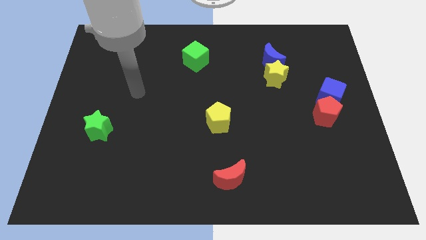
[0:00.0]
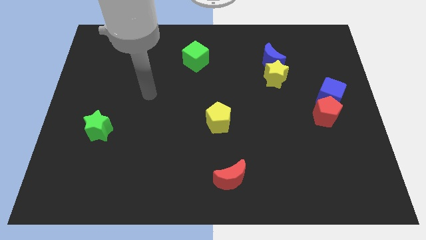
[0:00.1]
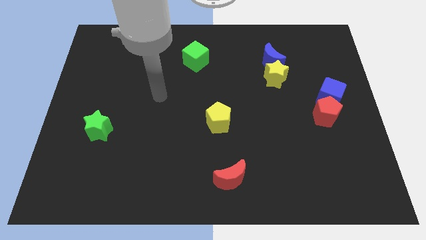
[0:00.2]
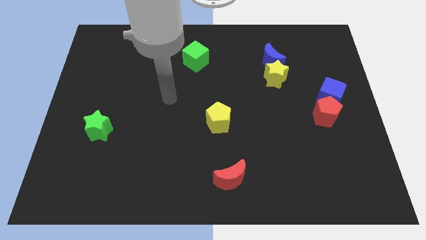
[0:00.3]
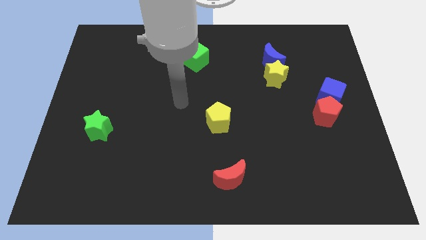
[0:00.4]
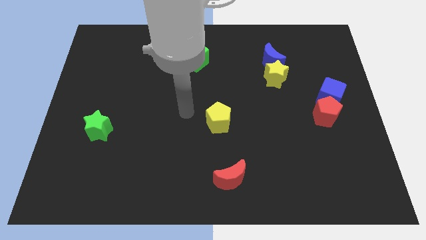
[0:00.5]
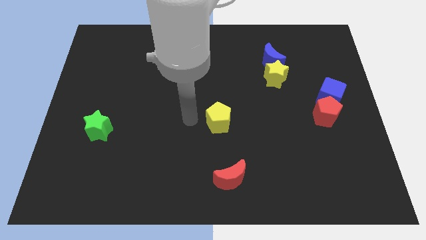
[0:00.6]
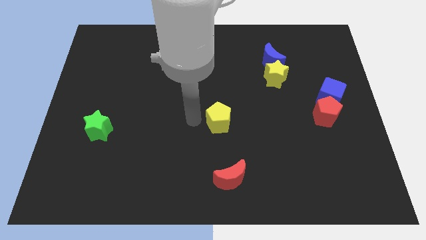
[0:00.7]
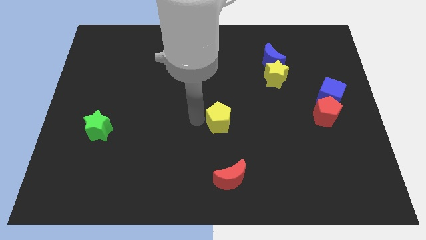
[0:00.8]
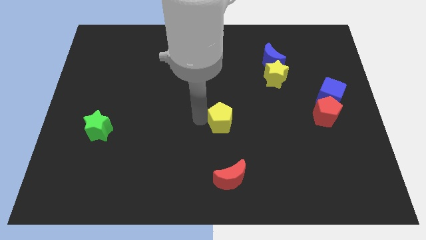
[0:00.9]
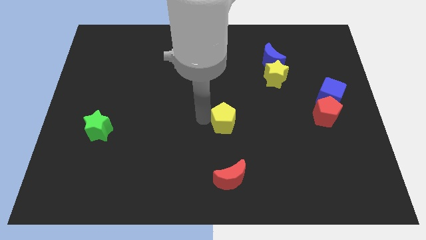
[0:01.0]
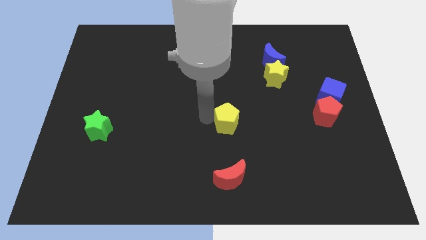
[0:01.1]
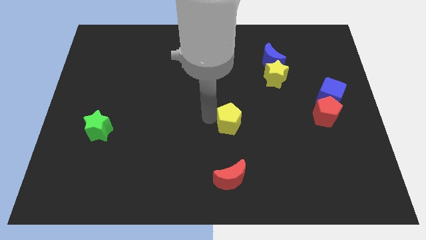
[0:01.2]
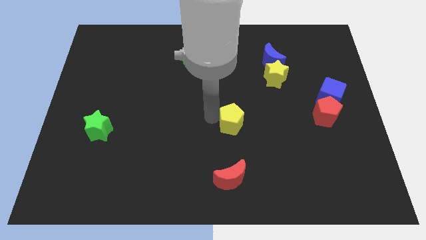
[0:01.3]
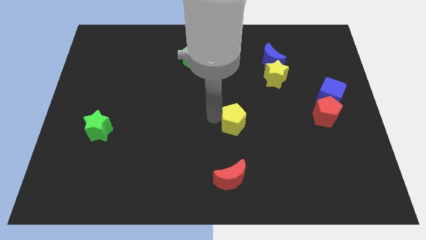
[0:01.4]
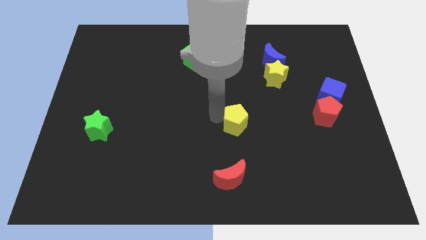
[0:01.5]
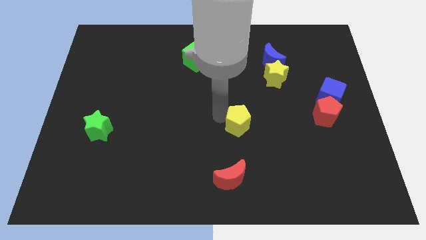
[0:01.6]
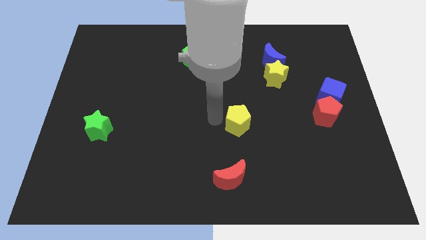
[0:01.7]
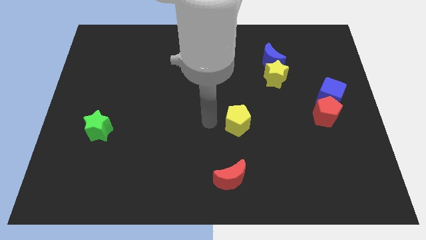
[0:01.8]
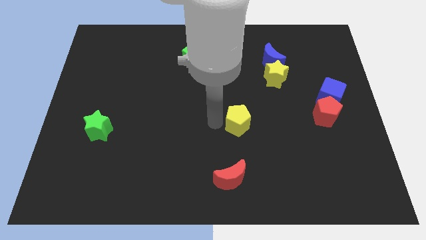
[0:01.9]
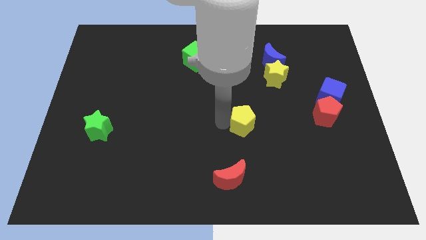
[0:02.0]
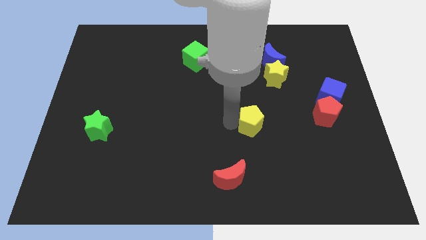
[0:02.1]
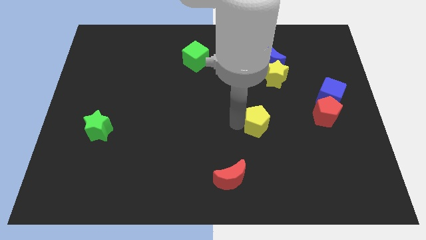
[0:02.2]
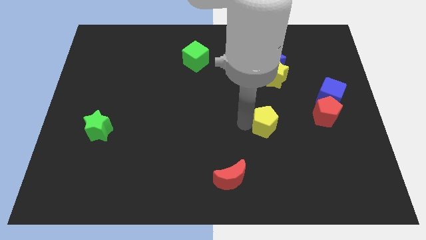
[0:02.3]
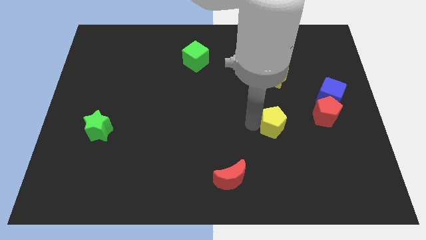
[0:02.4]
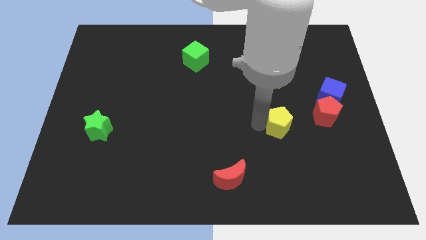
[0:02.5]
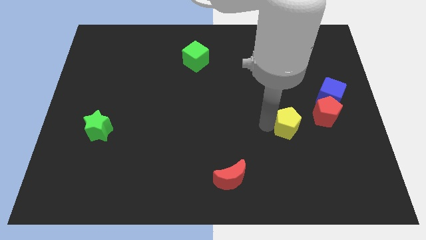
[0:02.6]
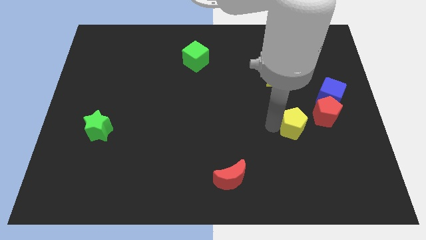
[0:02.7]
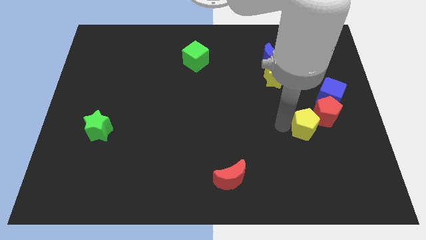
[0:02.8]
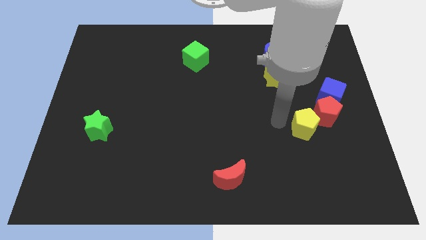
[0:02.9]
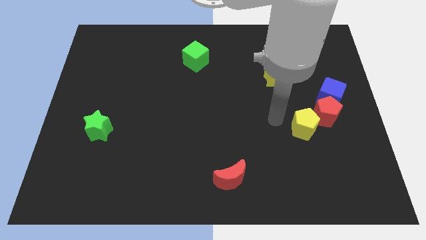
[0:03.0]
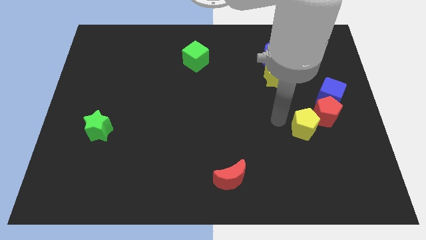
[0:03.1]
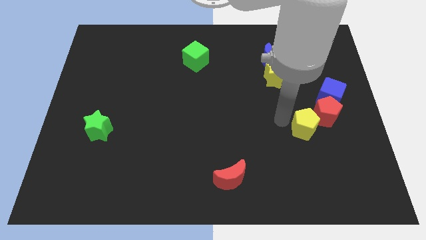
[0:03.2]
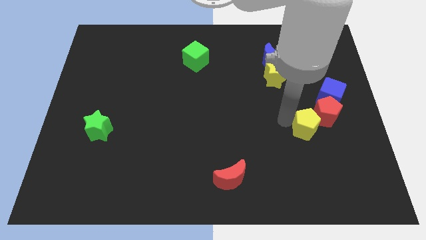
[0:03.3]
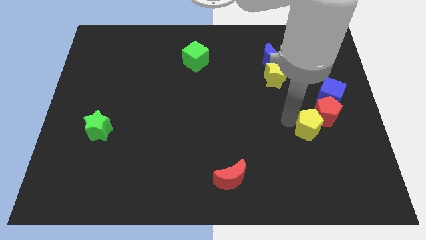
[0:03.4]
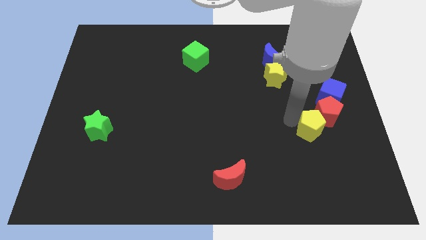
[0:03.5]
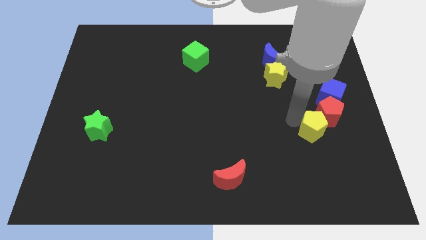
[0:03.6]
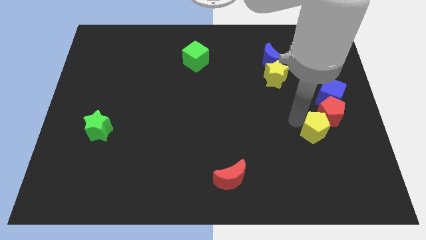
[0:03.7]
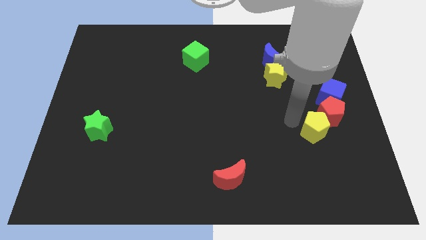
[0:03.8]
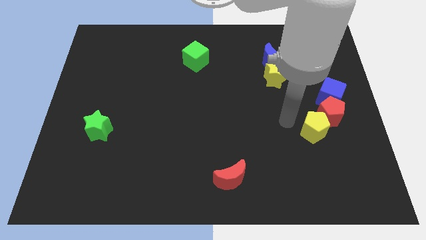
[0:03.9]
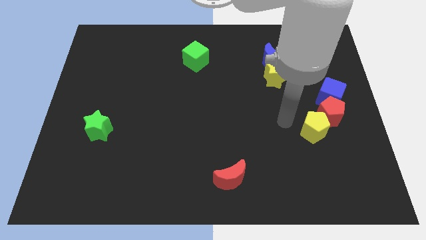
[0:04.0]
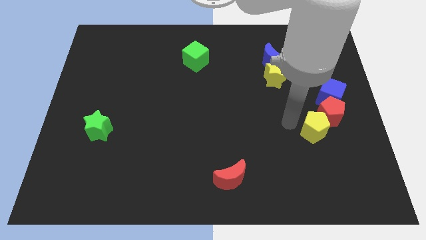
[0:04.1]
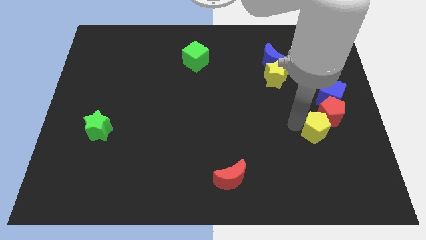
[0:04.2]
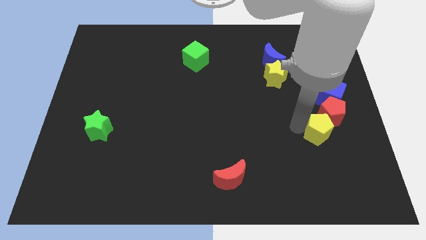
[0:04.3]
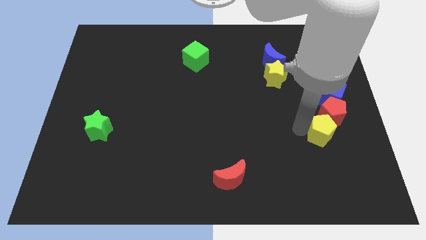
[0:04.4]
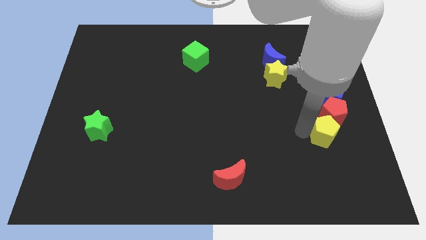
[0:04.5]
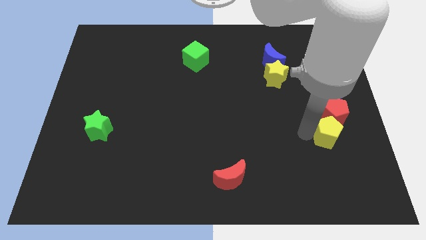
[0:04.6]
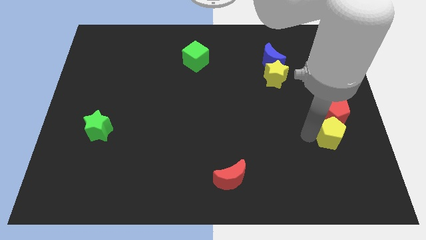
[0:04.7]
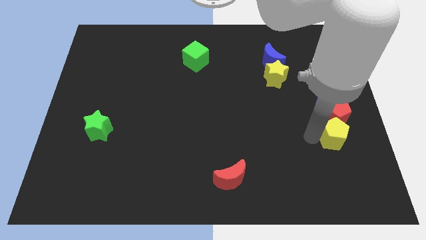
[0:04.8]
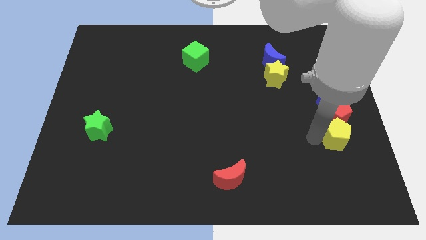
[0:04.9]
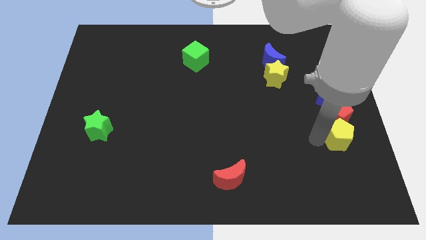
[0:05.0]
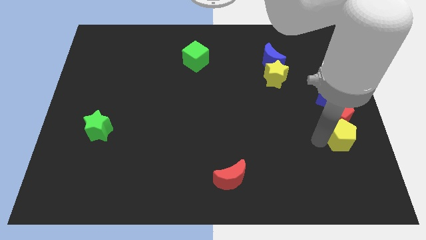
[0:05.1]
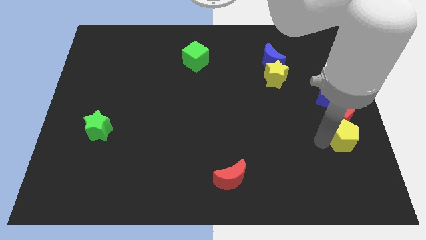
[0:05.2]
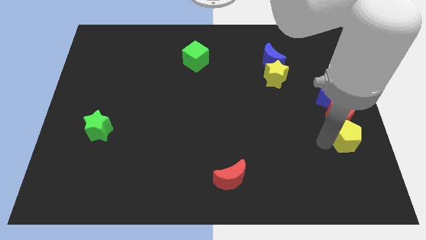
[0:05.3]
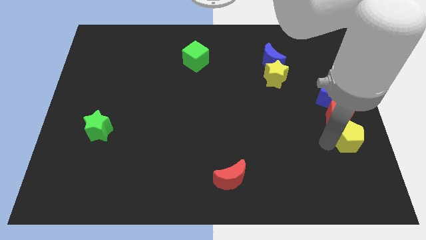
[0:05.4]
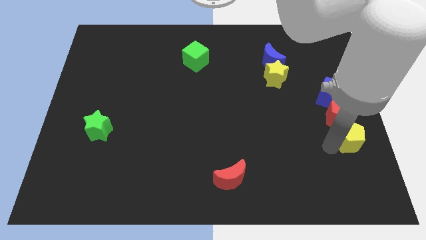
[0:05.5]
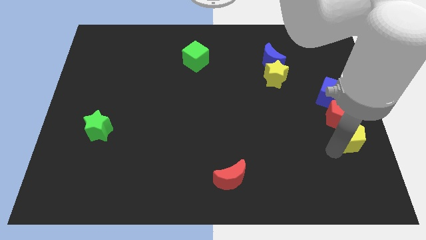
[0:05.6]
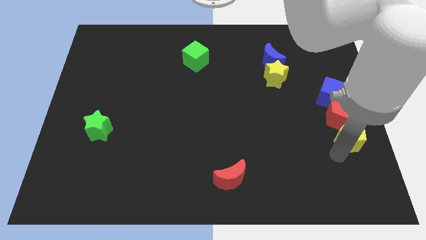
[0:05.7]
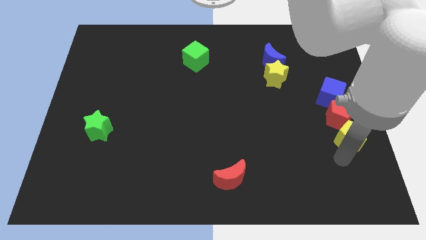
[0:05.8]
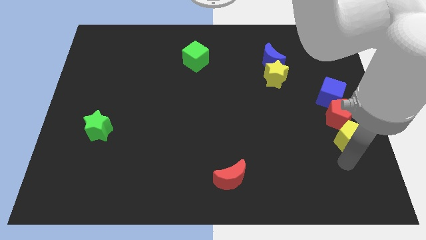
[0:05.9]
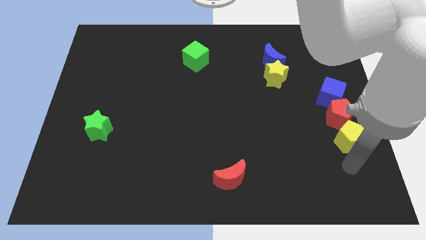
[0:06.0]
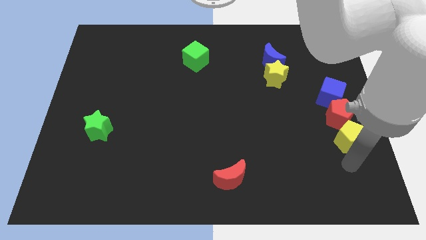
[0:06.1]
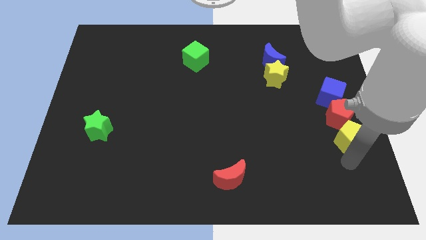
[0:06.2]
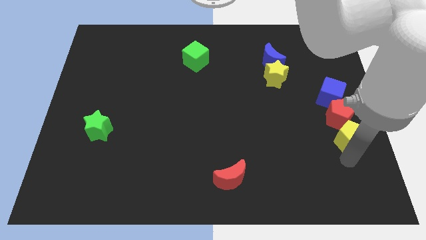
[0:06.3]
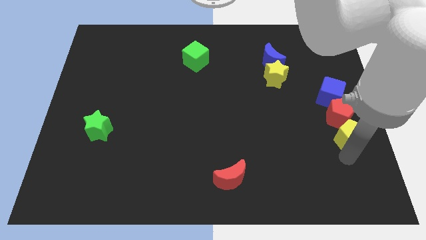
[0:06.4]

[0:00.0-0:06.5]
push the yellow pentagon to the center right
